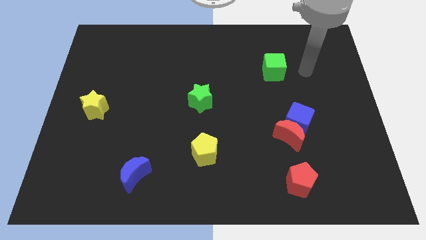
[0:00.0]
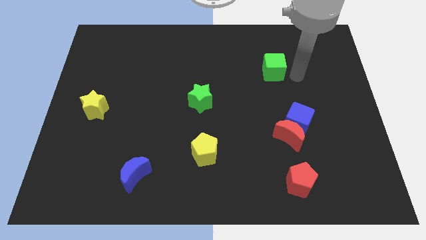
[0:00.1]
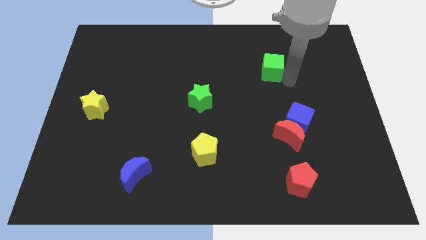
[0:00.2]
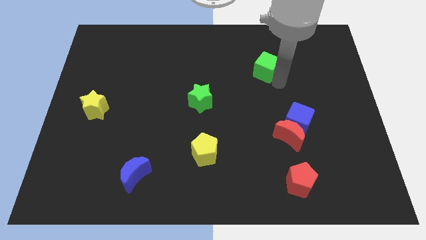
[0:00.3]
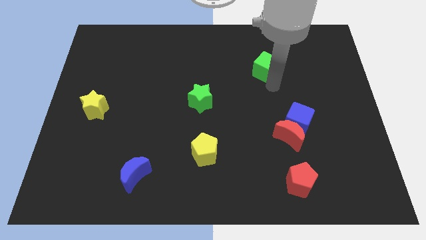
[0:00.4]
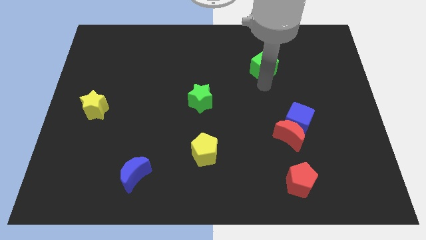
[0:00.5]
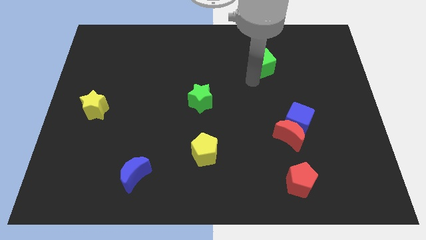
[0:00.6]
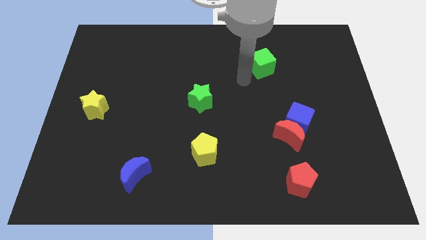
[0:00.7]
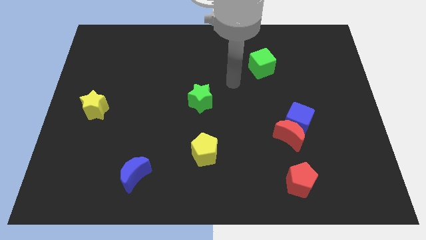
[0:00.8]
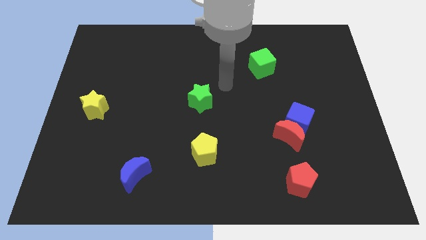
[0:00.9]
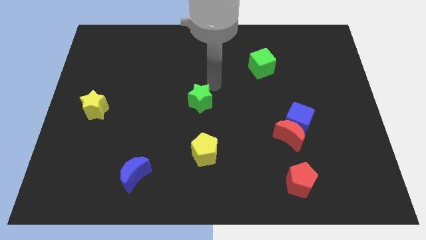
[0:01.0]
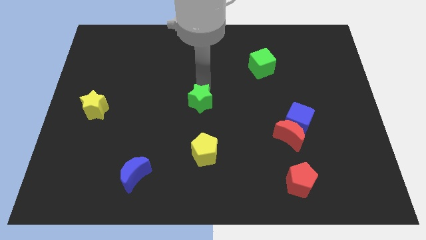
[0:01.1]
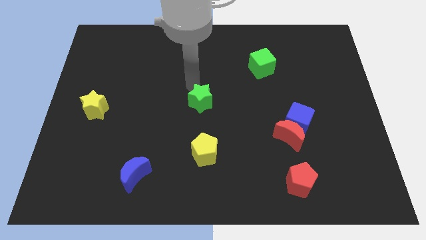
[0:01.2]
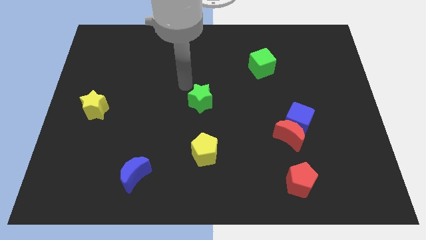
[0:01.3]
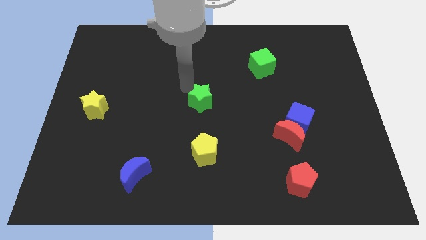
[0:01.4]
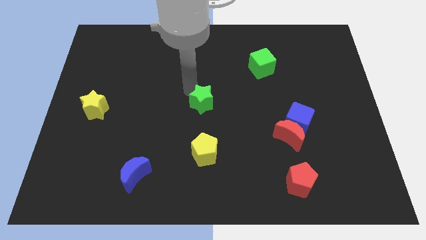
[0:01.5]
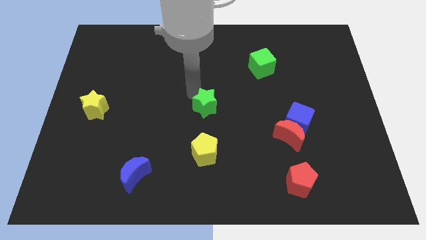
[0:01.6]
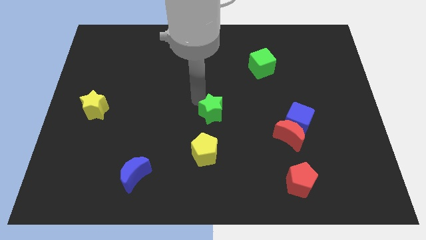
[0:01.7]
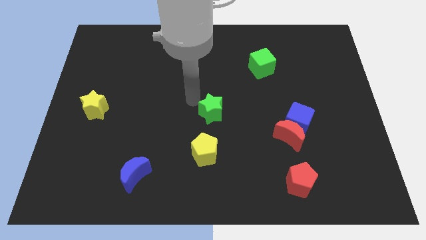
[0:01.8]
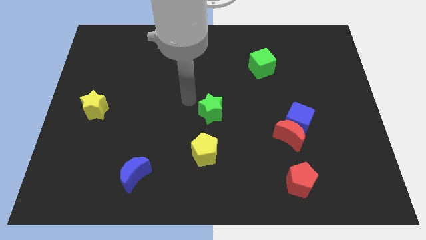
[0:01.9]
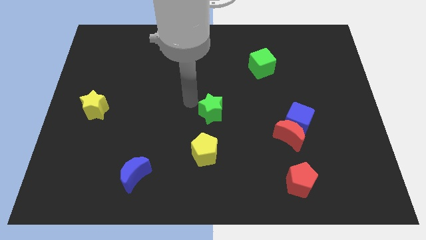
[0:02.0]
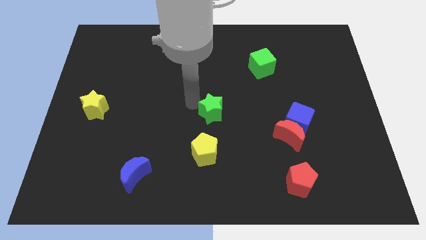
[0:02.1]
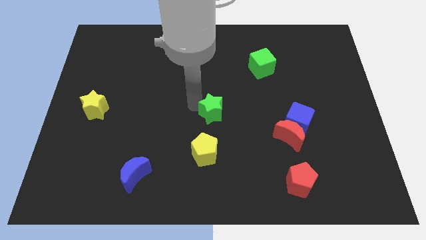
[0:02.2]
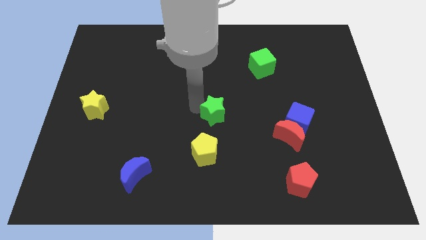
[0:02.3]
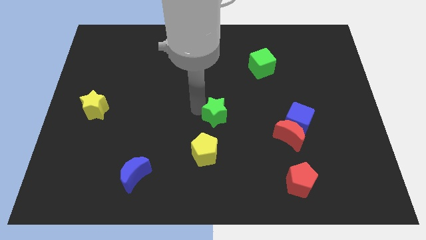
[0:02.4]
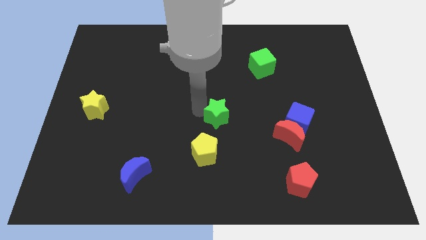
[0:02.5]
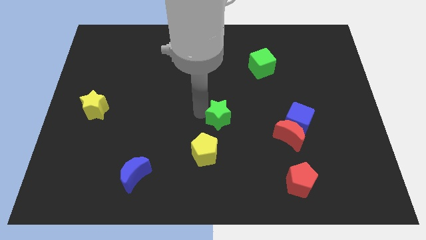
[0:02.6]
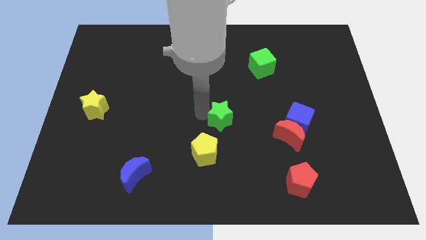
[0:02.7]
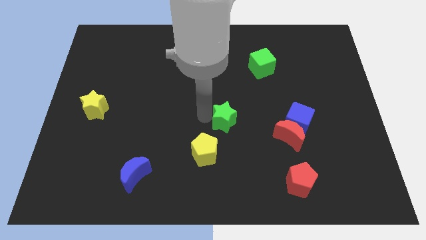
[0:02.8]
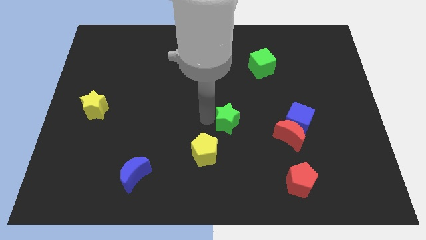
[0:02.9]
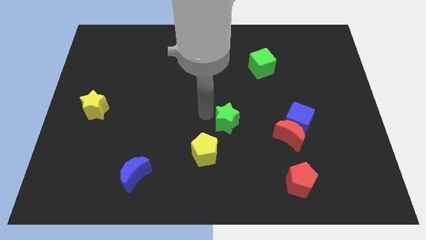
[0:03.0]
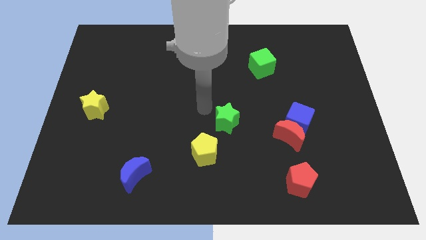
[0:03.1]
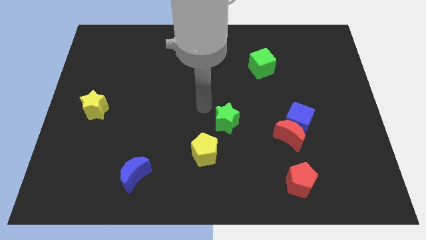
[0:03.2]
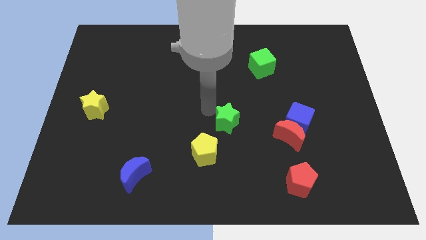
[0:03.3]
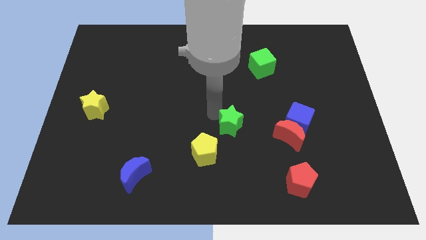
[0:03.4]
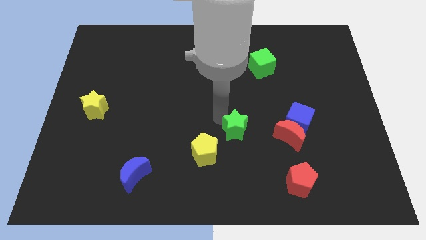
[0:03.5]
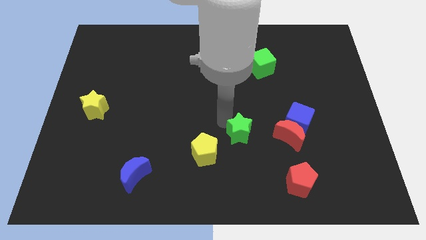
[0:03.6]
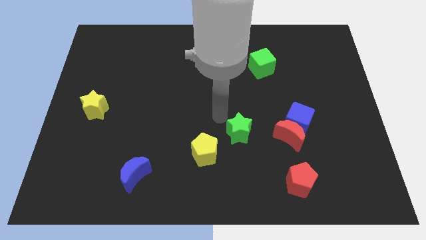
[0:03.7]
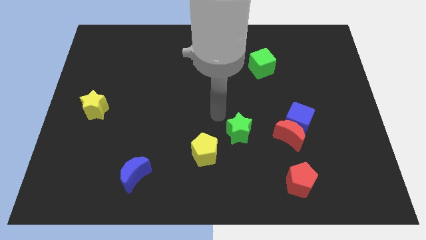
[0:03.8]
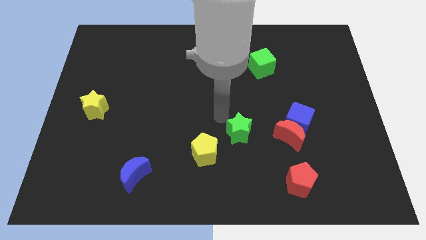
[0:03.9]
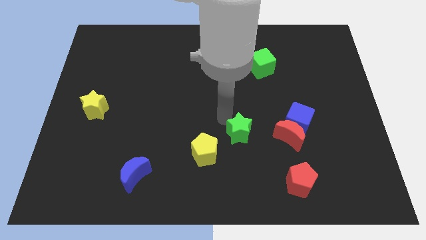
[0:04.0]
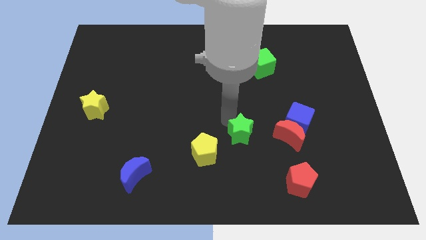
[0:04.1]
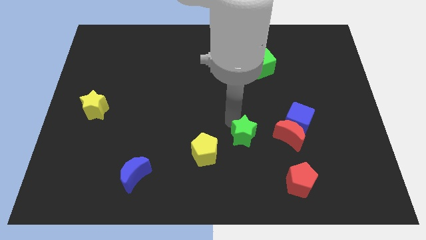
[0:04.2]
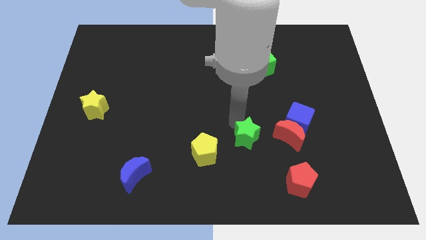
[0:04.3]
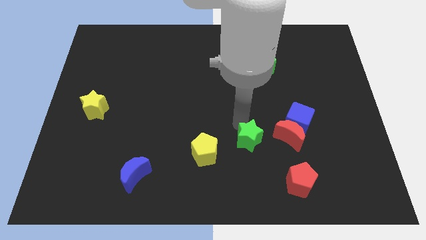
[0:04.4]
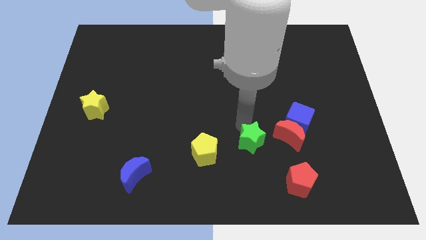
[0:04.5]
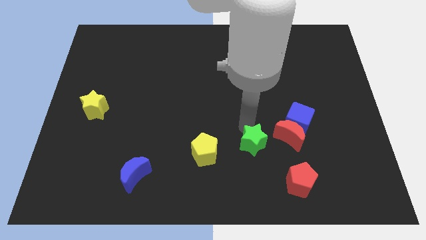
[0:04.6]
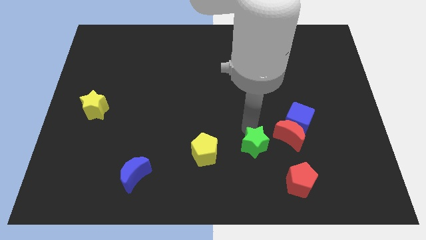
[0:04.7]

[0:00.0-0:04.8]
slide the green star to the top left side of the red pentagon

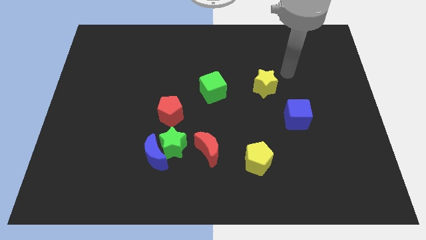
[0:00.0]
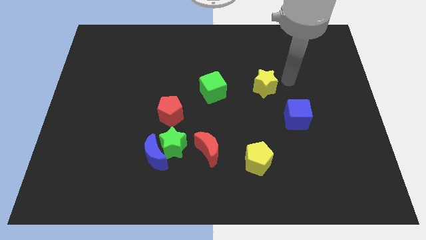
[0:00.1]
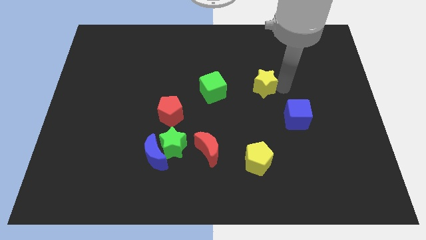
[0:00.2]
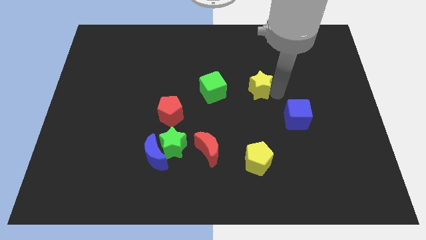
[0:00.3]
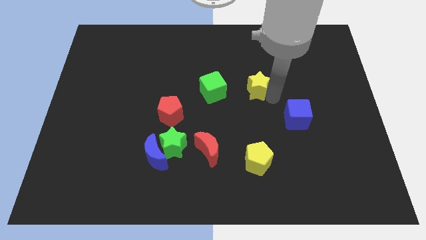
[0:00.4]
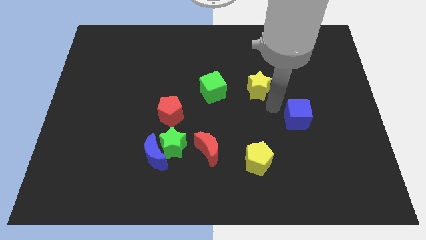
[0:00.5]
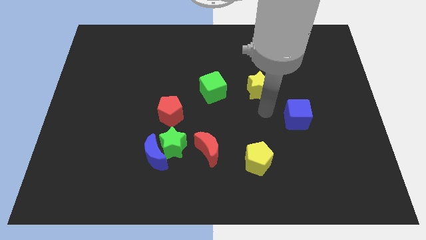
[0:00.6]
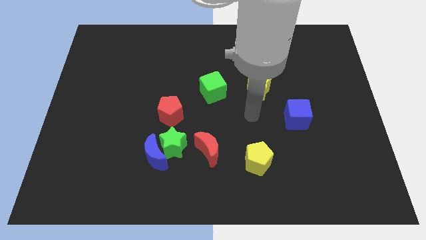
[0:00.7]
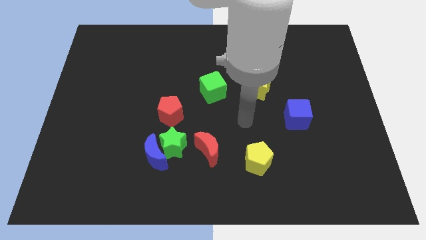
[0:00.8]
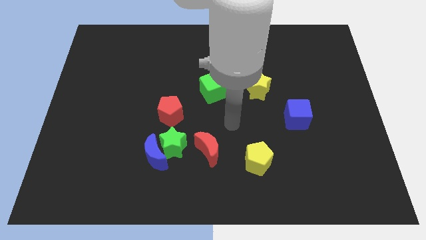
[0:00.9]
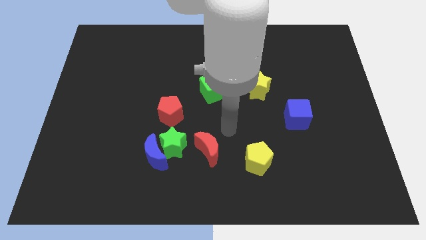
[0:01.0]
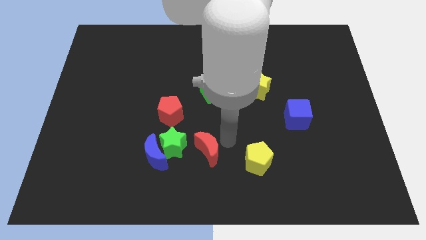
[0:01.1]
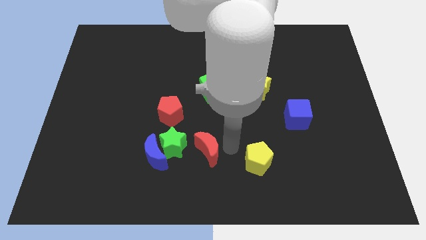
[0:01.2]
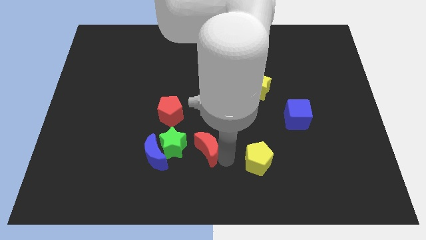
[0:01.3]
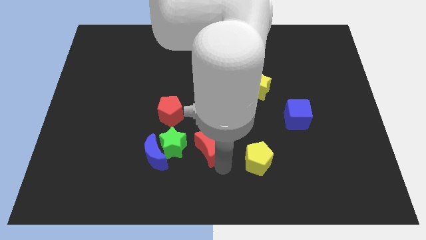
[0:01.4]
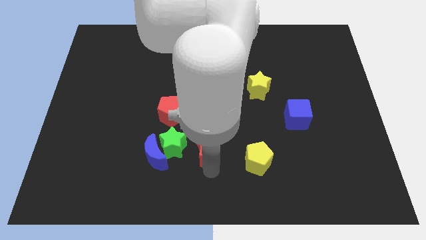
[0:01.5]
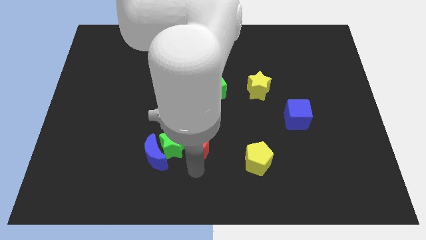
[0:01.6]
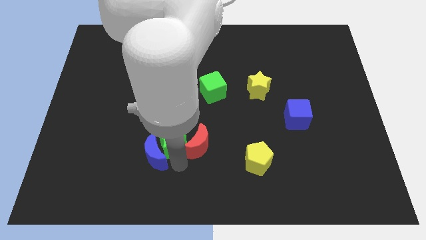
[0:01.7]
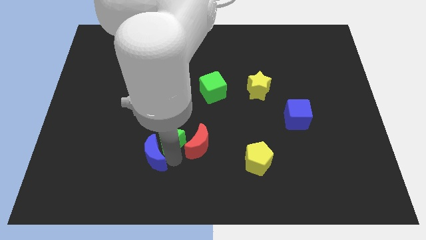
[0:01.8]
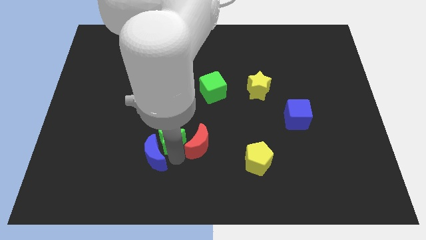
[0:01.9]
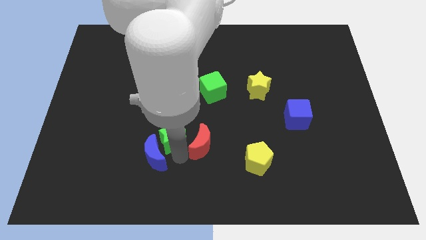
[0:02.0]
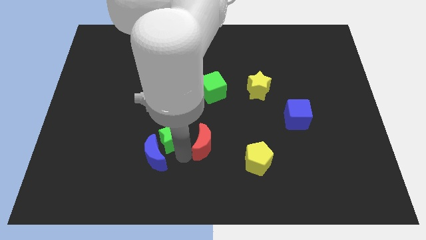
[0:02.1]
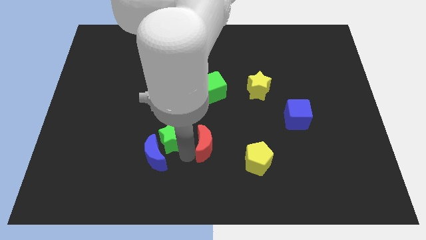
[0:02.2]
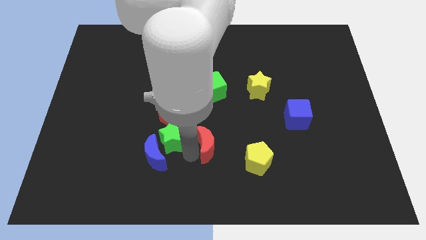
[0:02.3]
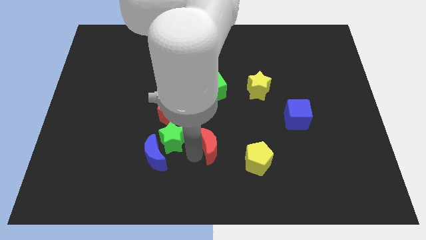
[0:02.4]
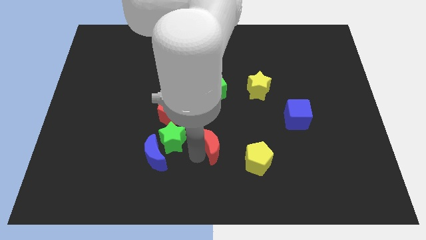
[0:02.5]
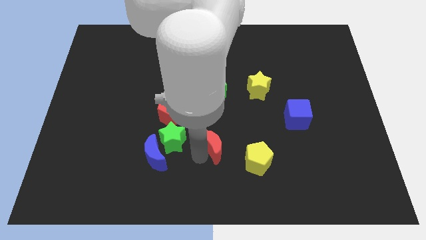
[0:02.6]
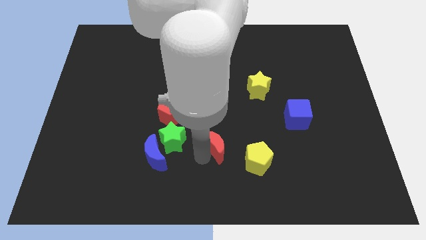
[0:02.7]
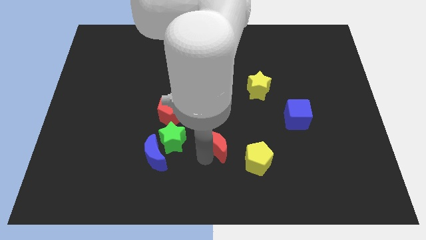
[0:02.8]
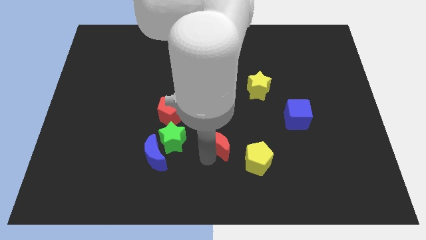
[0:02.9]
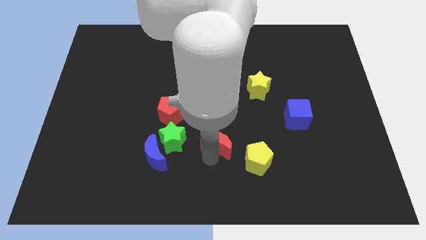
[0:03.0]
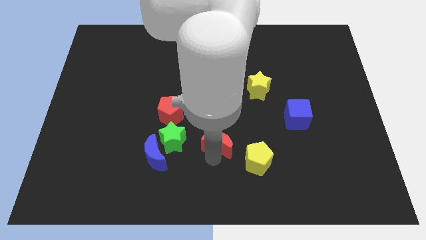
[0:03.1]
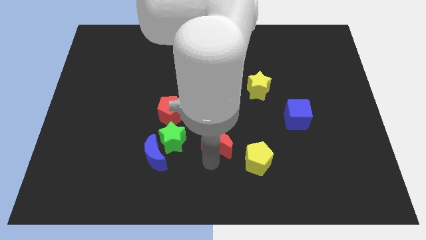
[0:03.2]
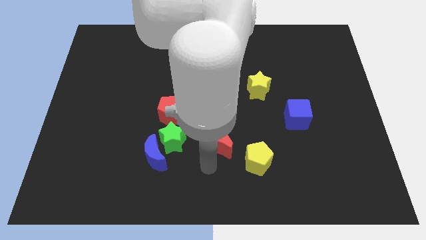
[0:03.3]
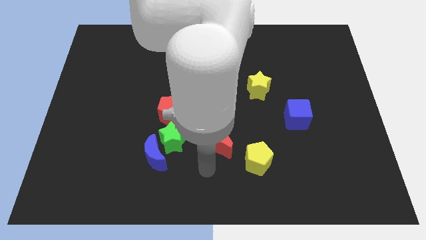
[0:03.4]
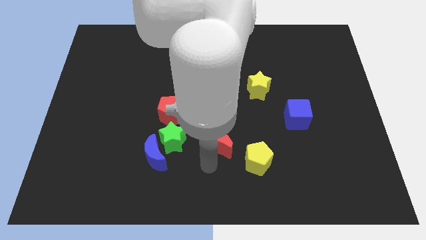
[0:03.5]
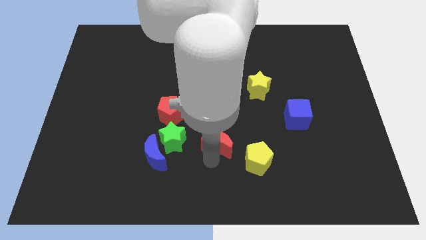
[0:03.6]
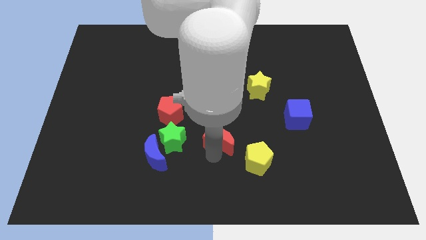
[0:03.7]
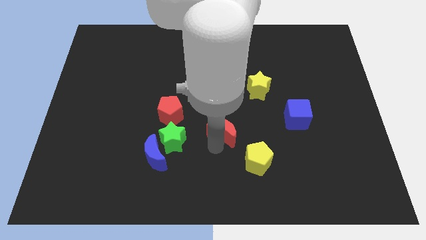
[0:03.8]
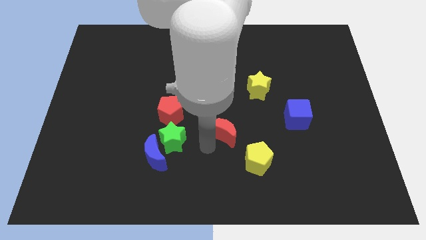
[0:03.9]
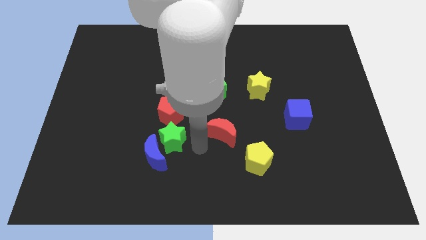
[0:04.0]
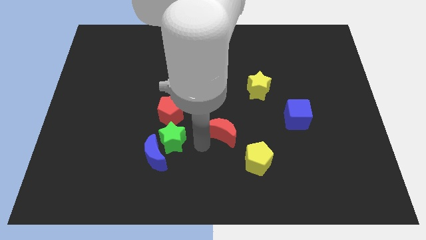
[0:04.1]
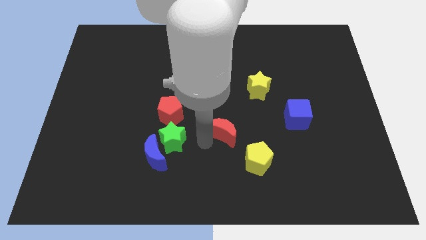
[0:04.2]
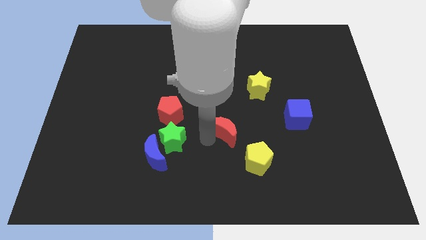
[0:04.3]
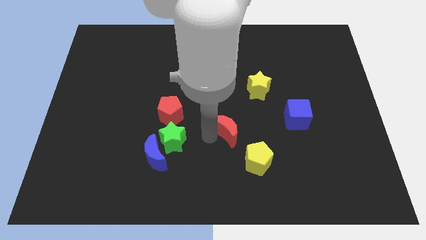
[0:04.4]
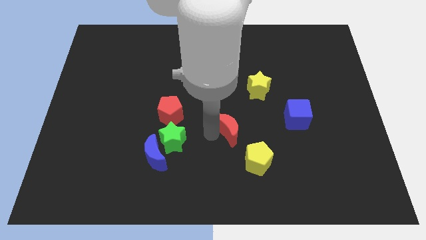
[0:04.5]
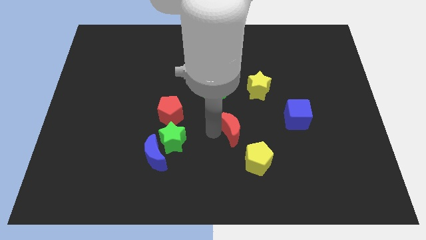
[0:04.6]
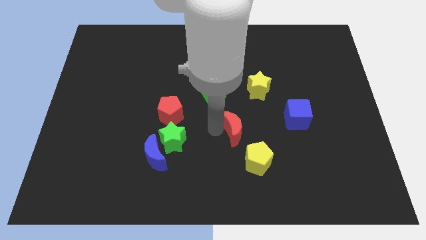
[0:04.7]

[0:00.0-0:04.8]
move the red moon to the left side of the blue cube
